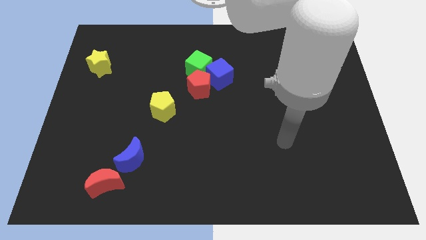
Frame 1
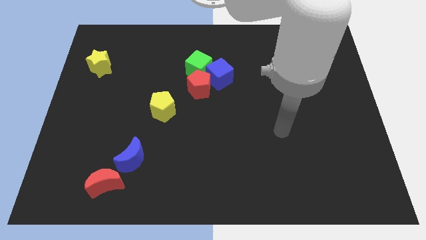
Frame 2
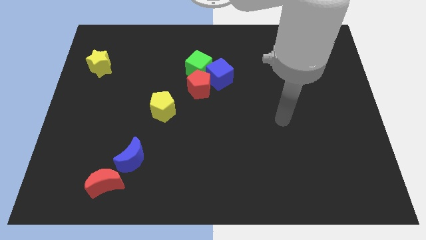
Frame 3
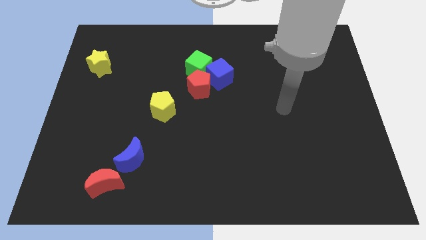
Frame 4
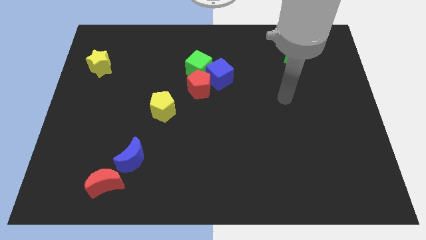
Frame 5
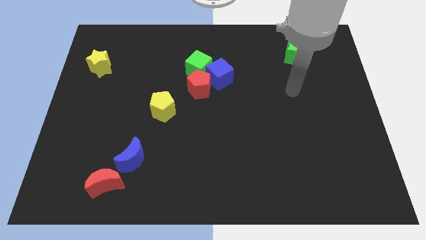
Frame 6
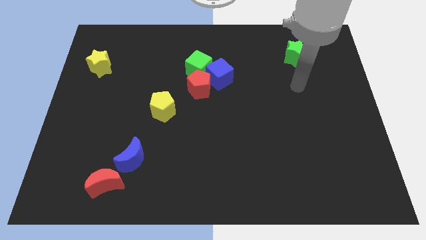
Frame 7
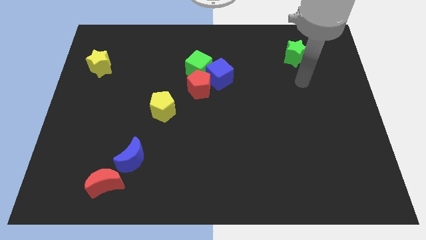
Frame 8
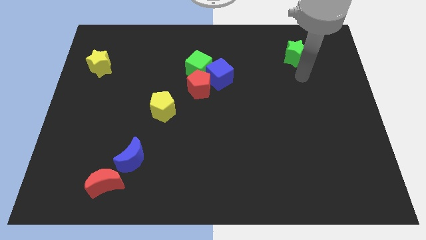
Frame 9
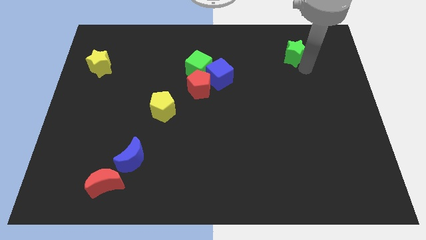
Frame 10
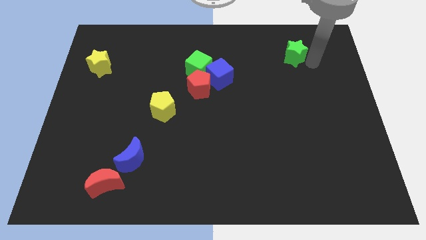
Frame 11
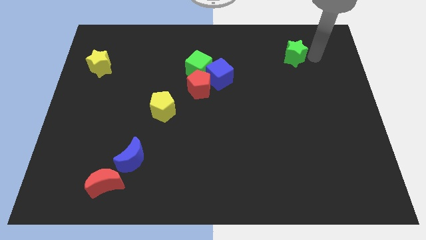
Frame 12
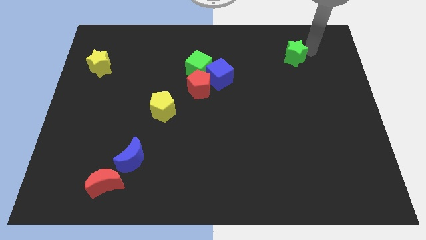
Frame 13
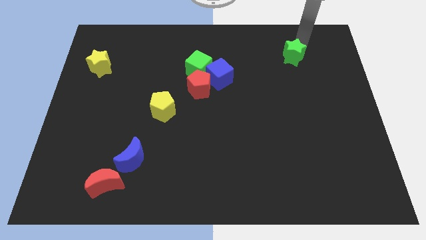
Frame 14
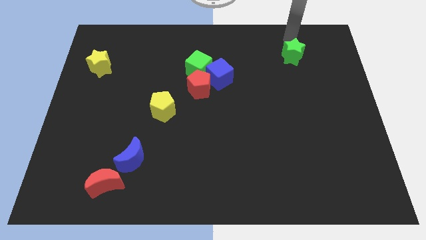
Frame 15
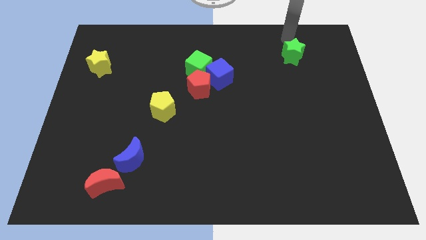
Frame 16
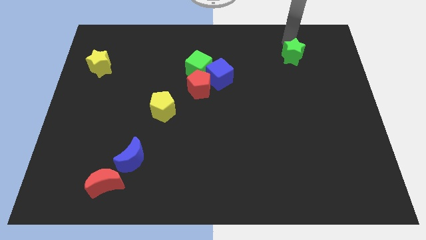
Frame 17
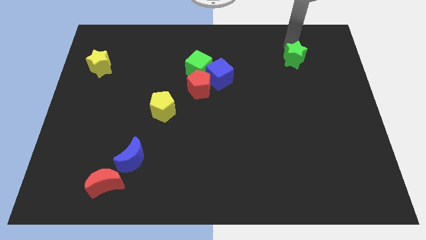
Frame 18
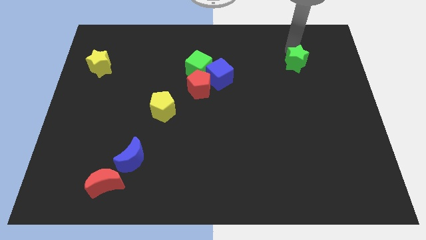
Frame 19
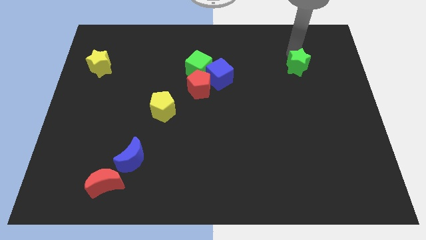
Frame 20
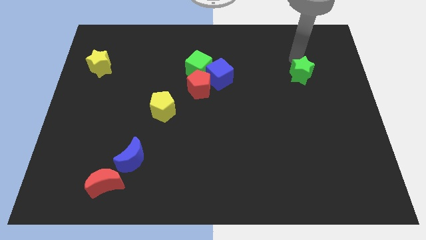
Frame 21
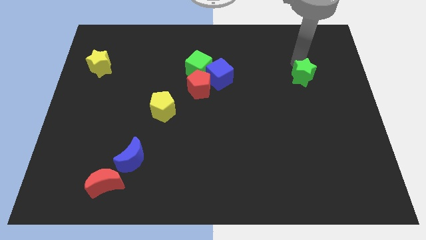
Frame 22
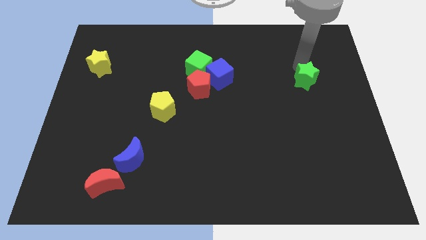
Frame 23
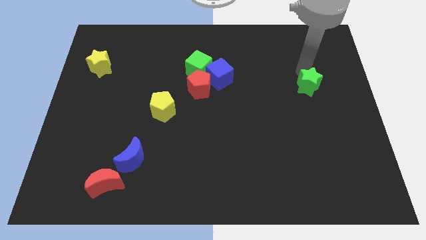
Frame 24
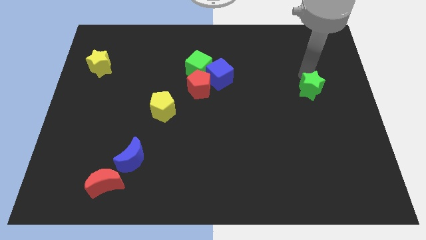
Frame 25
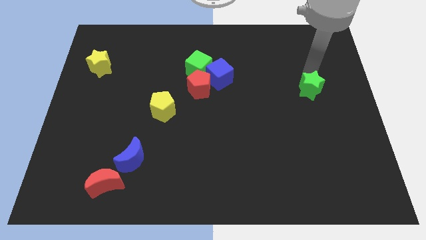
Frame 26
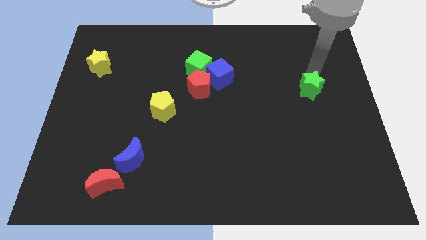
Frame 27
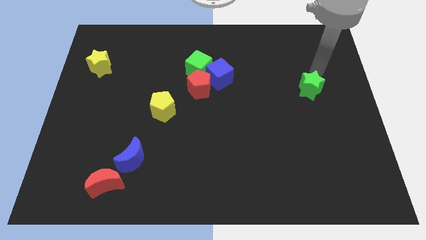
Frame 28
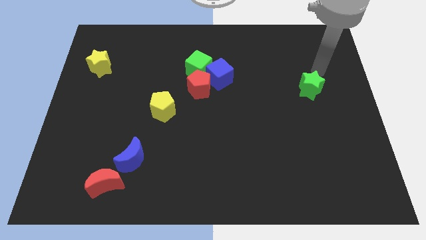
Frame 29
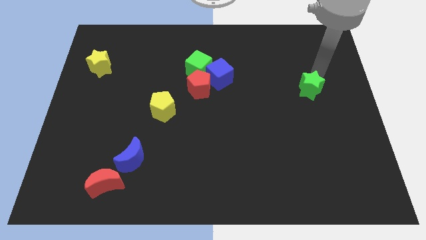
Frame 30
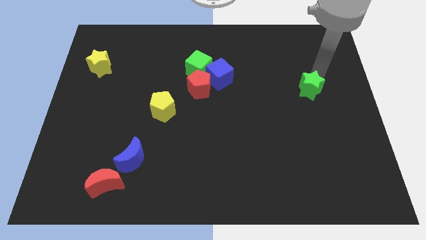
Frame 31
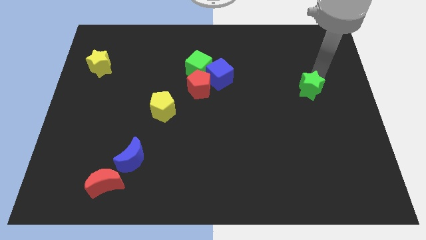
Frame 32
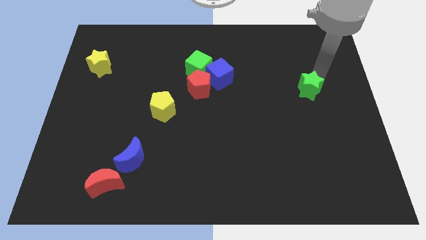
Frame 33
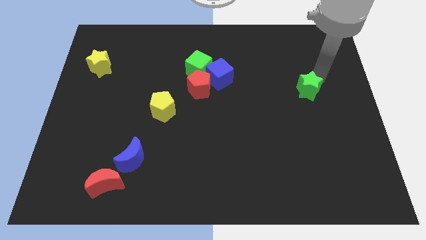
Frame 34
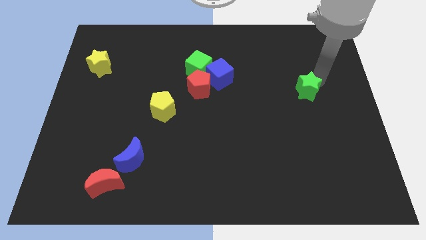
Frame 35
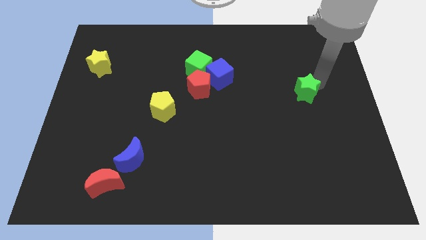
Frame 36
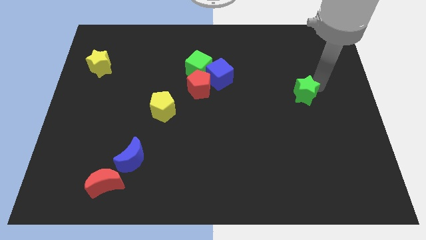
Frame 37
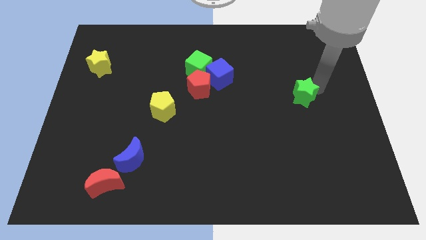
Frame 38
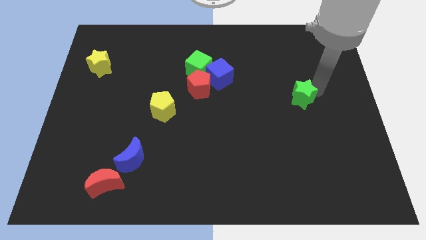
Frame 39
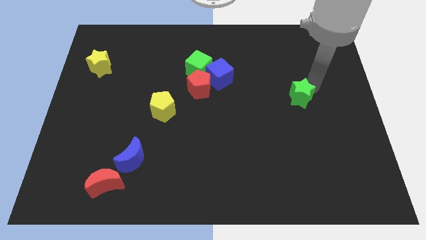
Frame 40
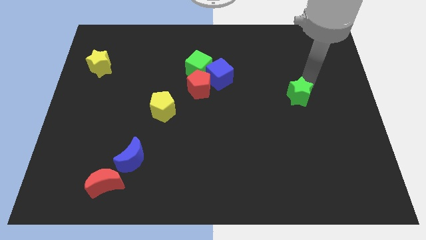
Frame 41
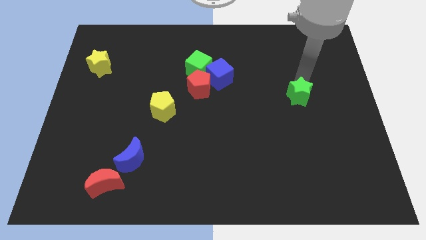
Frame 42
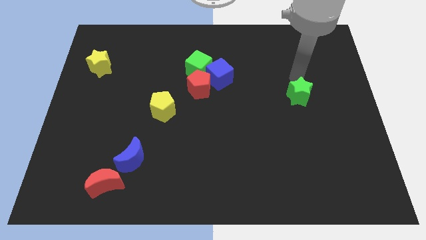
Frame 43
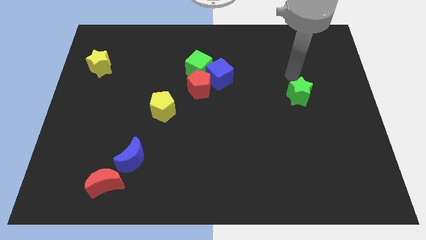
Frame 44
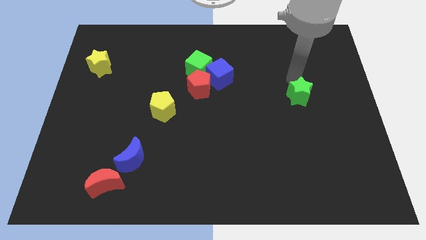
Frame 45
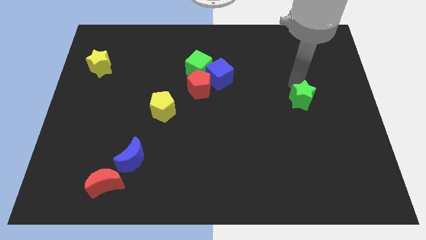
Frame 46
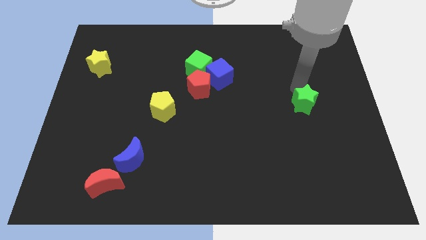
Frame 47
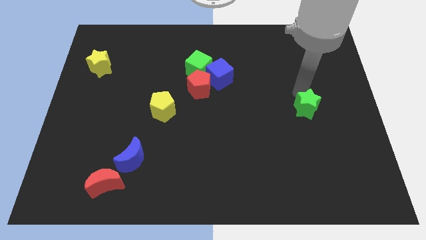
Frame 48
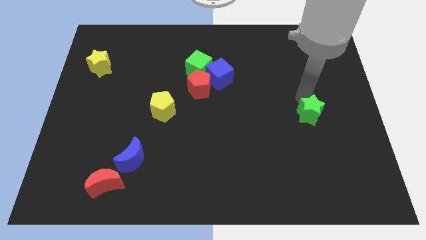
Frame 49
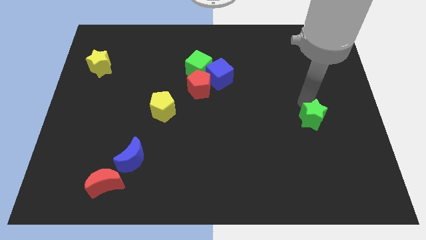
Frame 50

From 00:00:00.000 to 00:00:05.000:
slide the green star downwards

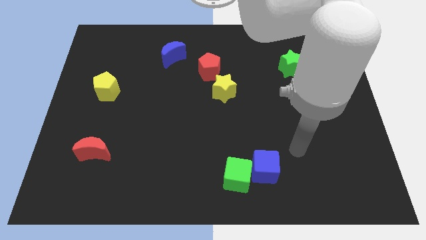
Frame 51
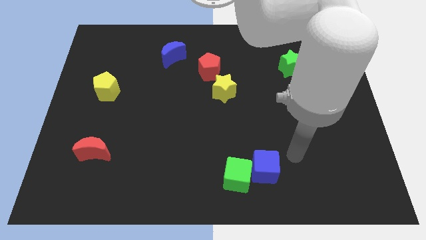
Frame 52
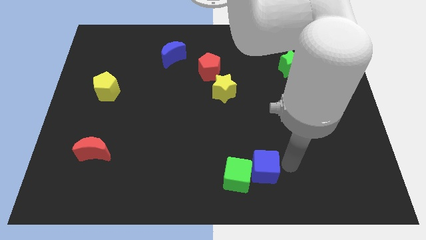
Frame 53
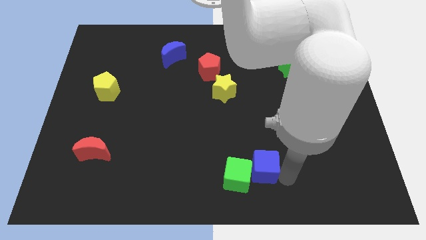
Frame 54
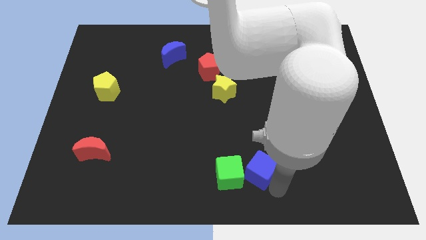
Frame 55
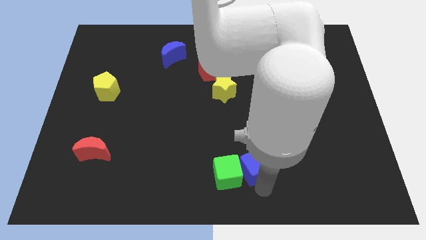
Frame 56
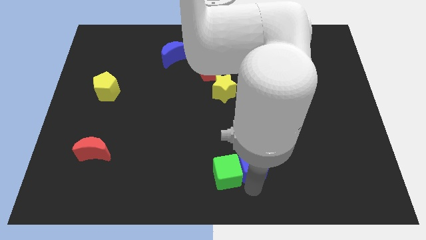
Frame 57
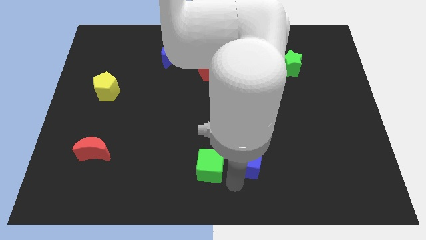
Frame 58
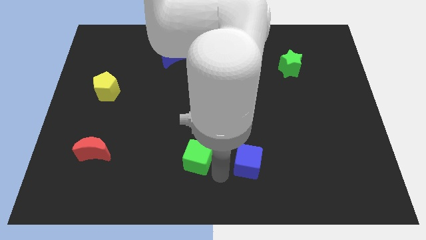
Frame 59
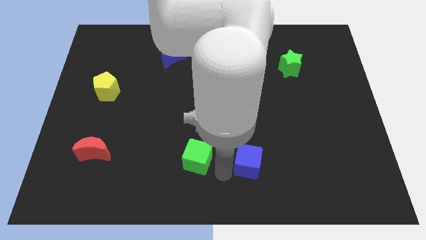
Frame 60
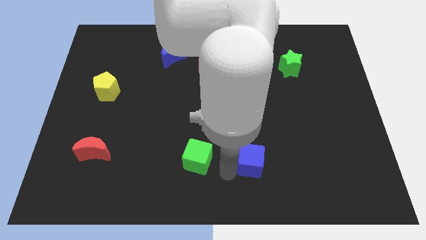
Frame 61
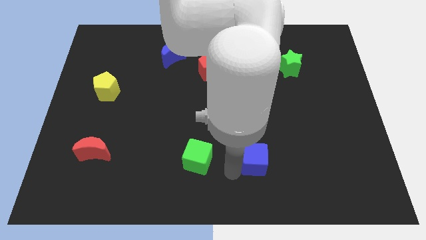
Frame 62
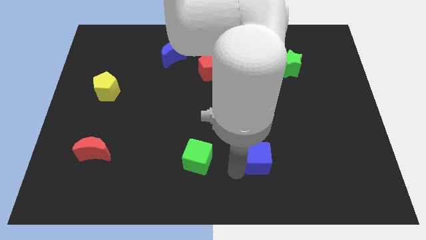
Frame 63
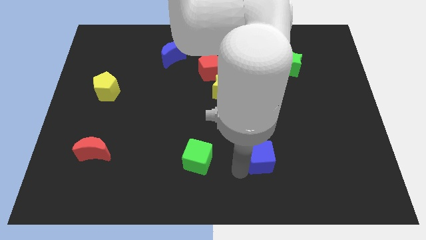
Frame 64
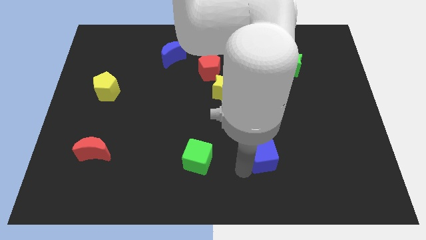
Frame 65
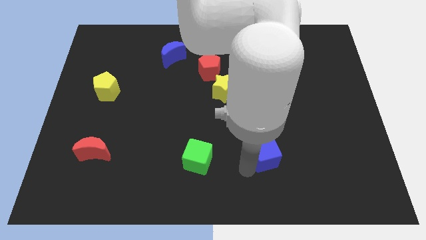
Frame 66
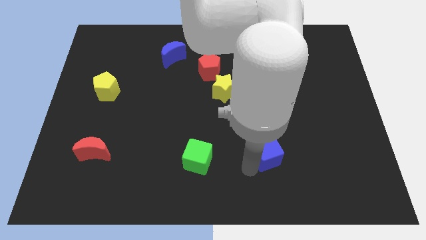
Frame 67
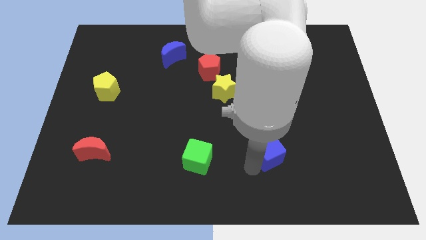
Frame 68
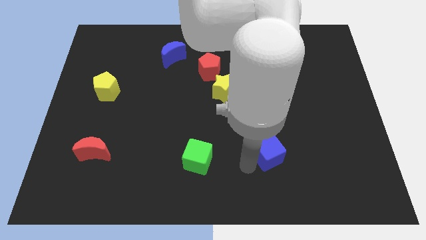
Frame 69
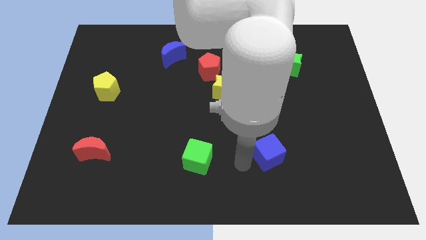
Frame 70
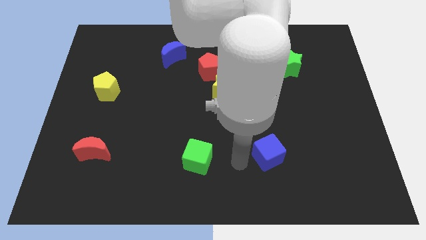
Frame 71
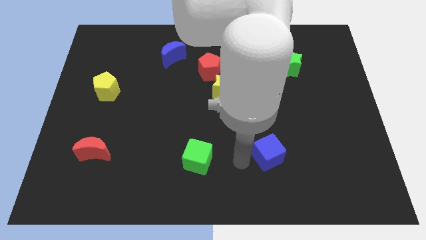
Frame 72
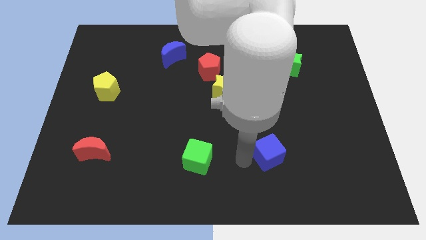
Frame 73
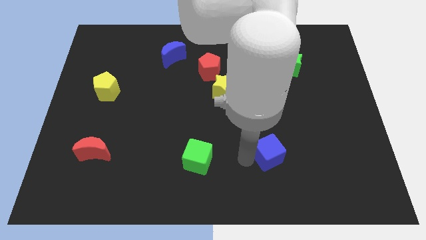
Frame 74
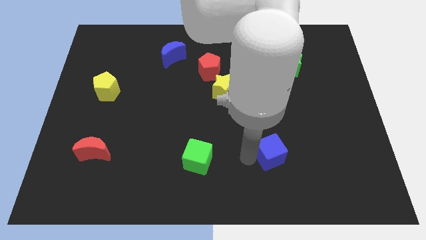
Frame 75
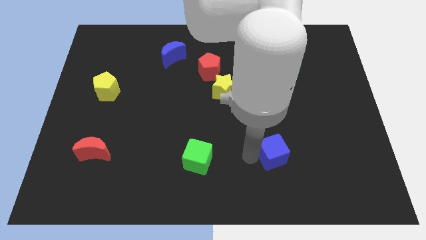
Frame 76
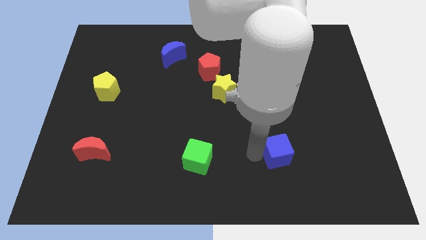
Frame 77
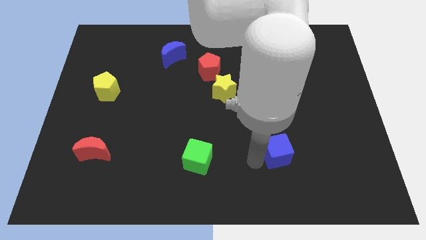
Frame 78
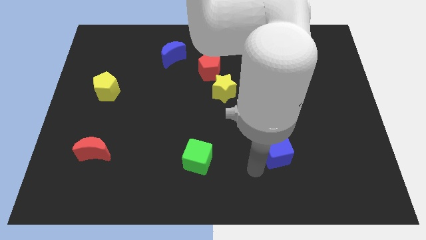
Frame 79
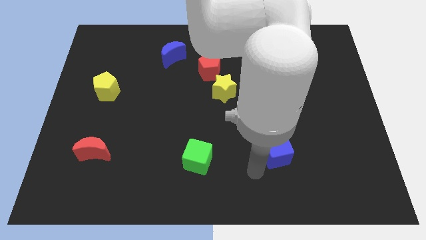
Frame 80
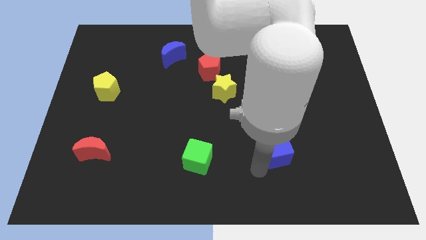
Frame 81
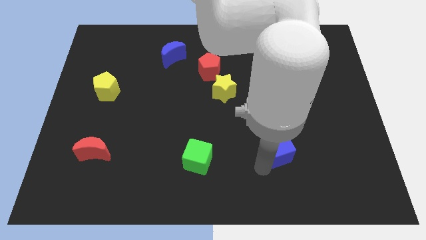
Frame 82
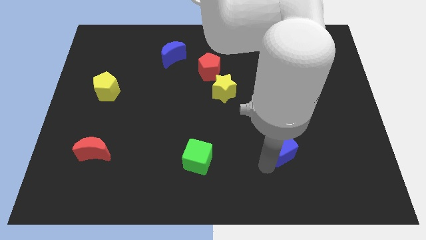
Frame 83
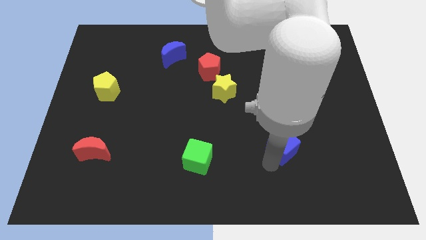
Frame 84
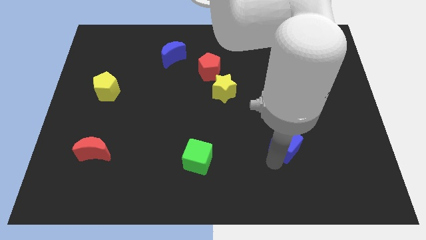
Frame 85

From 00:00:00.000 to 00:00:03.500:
slightly slide the blue cube upwards and to the right diagonally
